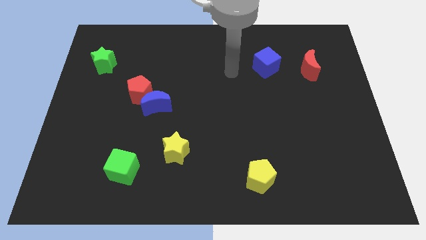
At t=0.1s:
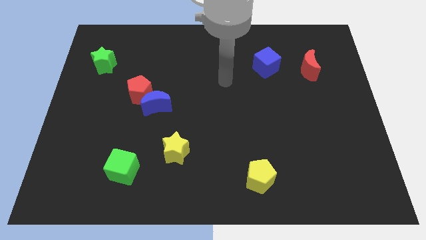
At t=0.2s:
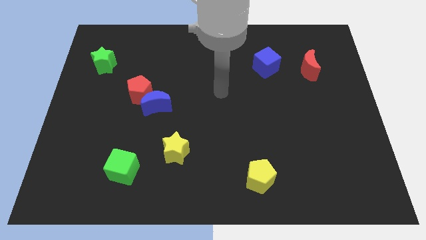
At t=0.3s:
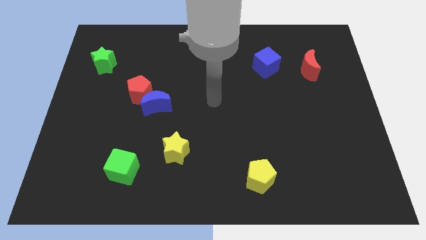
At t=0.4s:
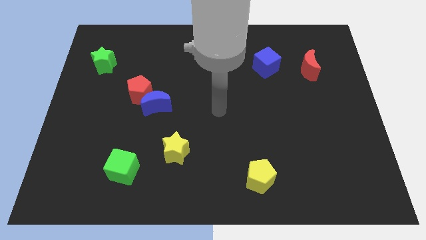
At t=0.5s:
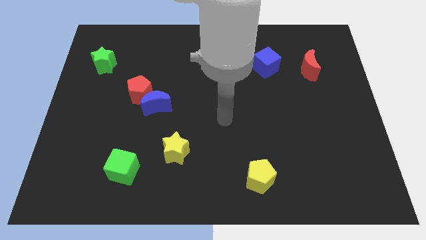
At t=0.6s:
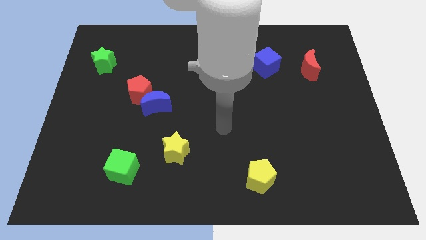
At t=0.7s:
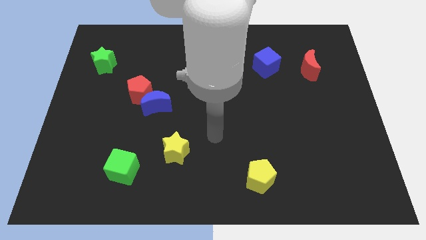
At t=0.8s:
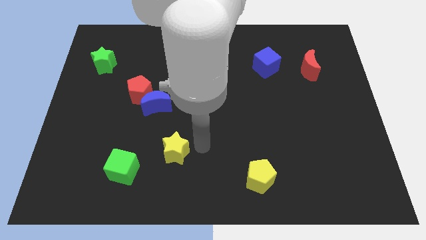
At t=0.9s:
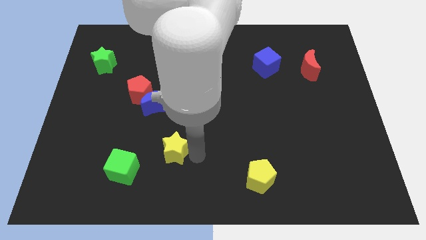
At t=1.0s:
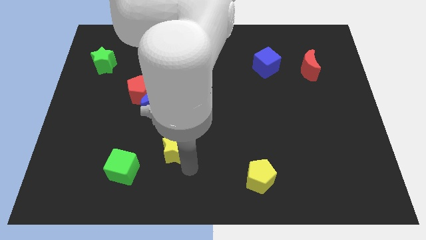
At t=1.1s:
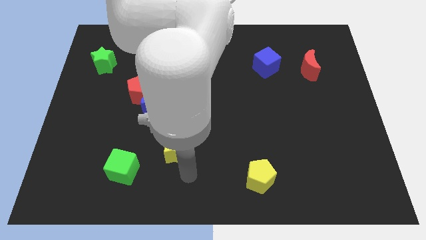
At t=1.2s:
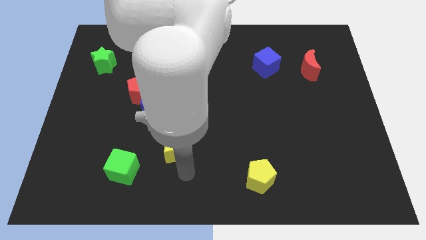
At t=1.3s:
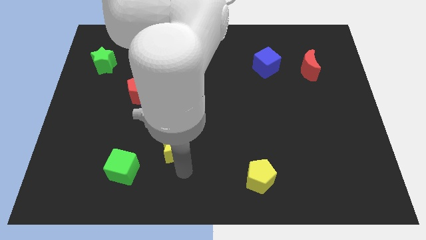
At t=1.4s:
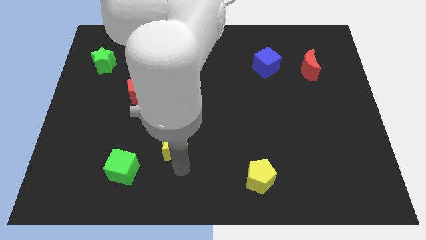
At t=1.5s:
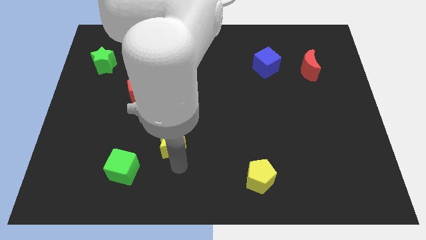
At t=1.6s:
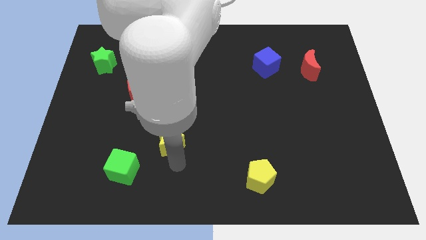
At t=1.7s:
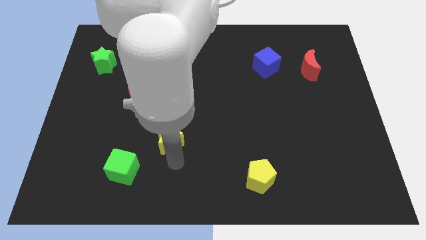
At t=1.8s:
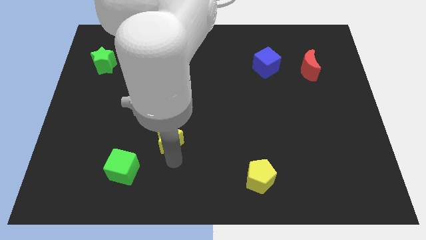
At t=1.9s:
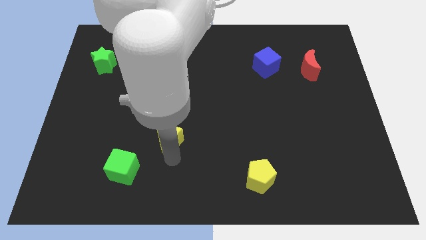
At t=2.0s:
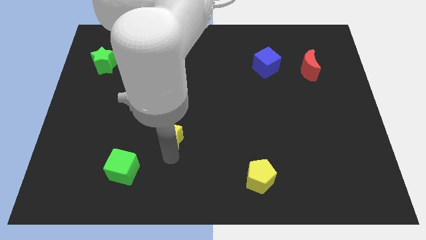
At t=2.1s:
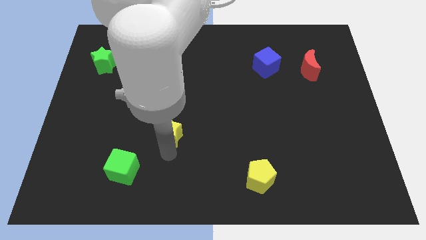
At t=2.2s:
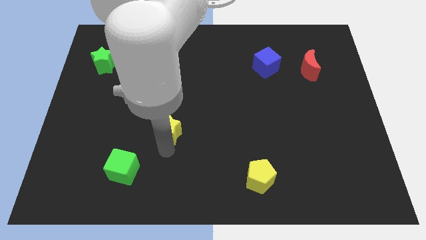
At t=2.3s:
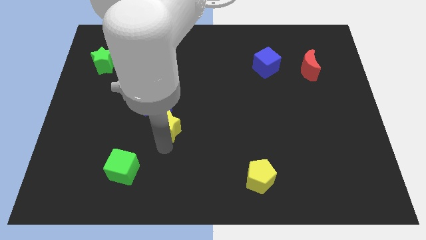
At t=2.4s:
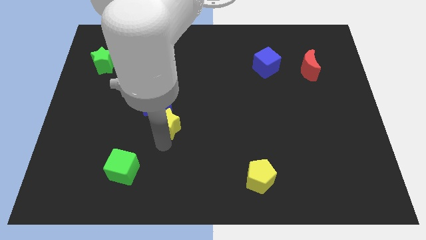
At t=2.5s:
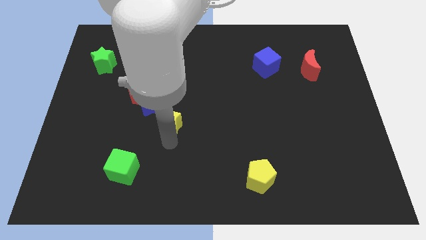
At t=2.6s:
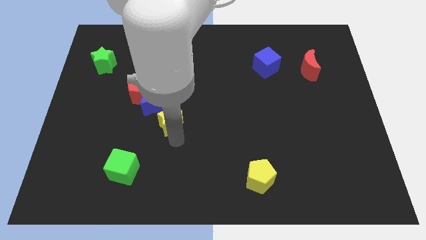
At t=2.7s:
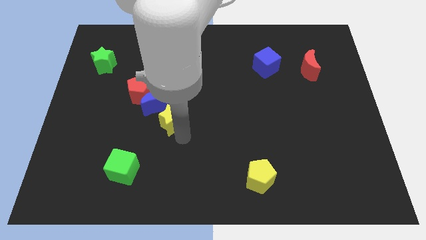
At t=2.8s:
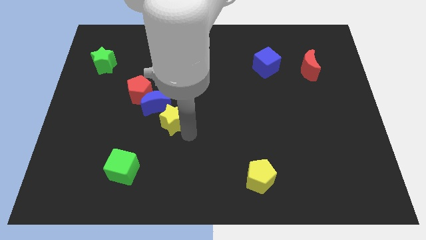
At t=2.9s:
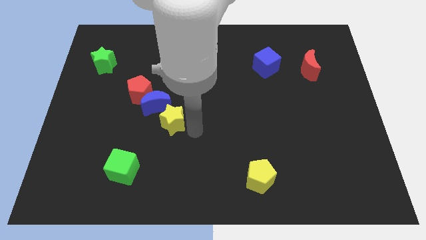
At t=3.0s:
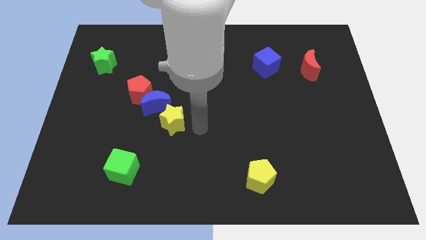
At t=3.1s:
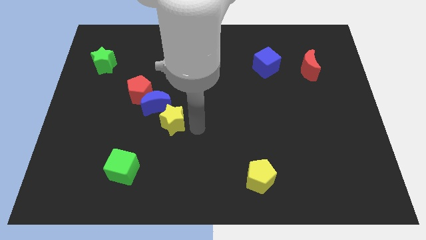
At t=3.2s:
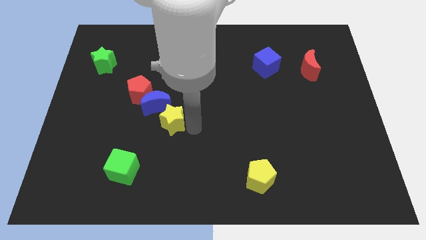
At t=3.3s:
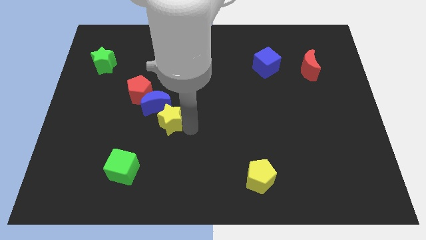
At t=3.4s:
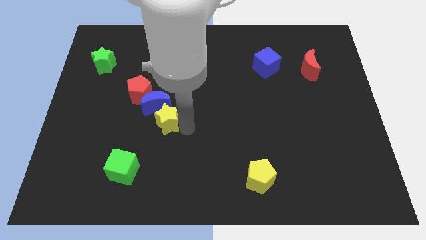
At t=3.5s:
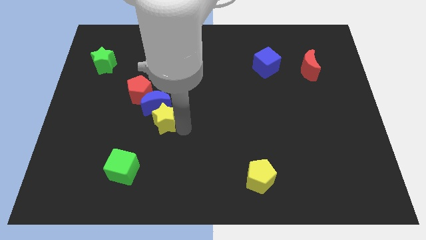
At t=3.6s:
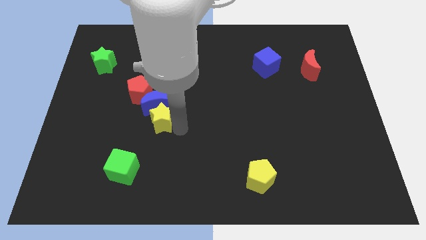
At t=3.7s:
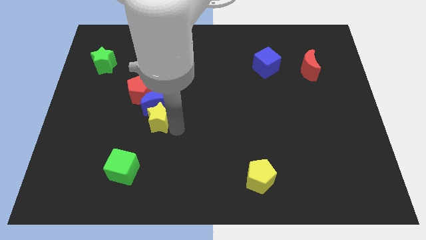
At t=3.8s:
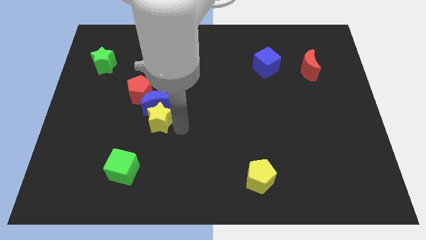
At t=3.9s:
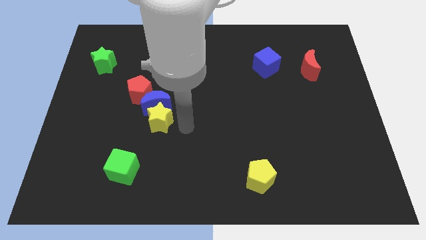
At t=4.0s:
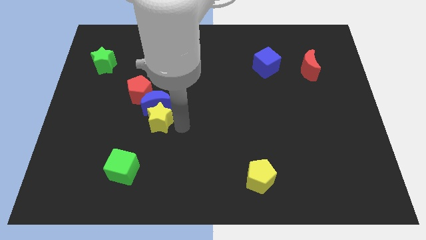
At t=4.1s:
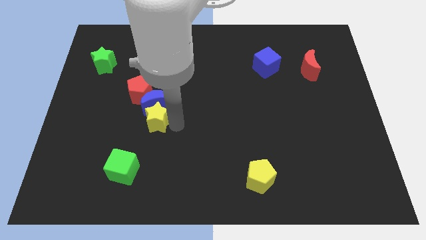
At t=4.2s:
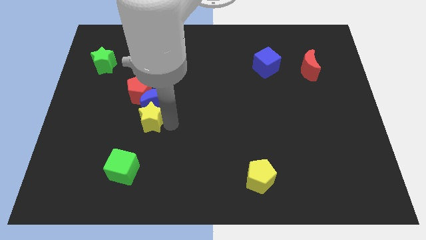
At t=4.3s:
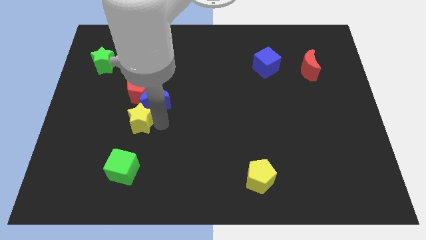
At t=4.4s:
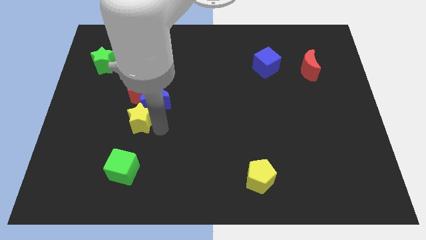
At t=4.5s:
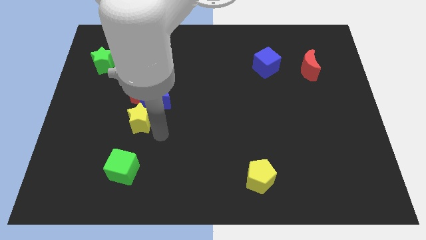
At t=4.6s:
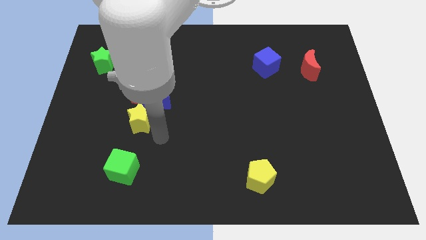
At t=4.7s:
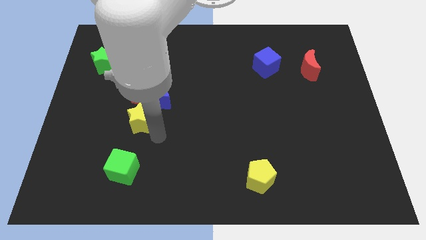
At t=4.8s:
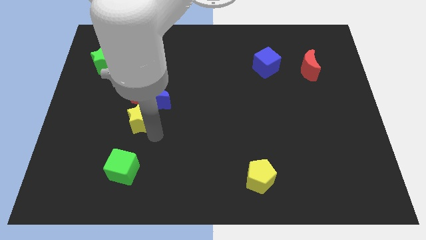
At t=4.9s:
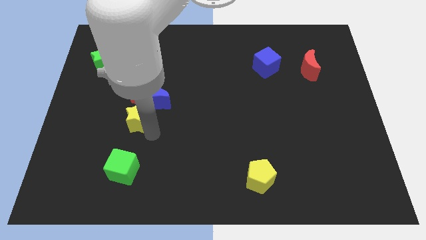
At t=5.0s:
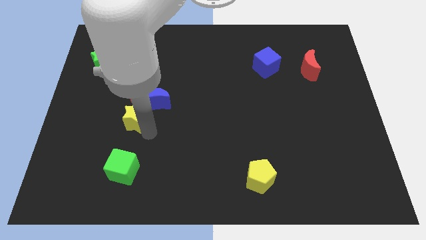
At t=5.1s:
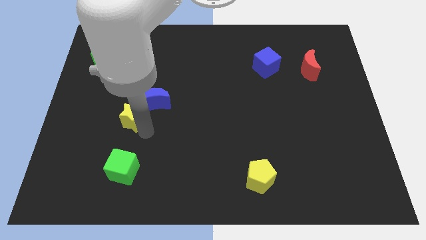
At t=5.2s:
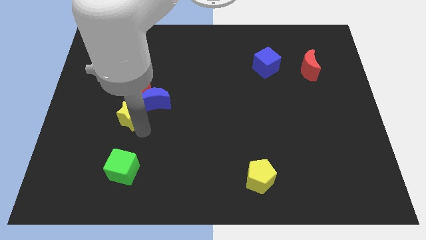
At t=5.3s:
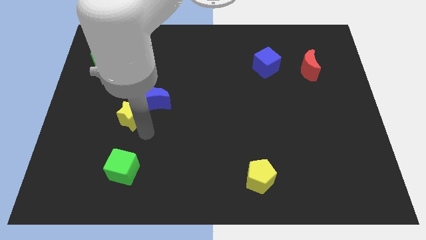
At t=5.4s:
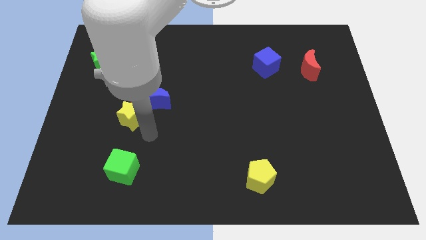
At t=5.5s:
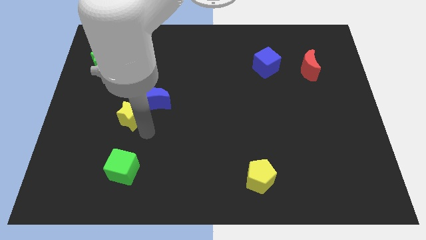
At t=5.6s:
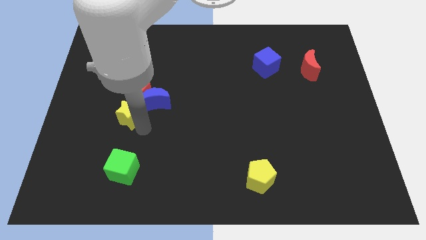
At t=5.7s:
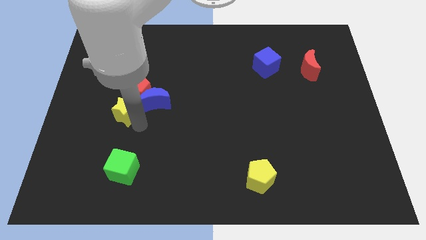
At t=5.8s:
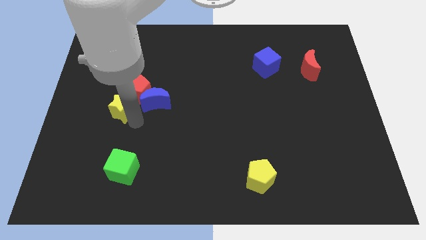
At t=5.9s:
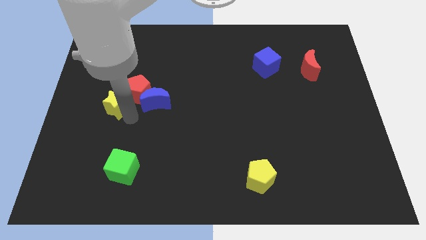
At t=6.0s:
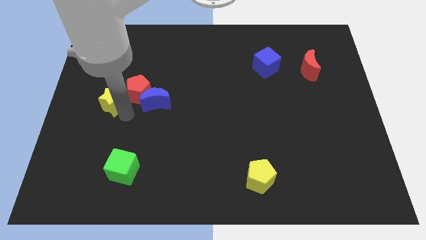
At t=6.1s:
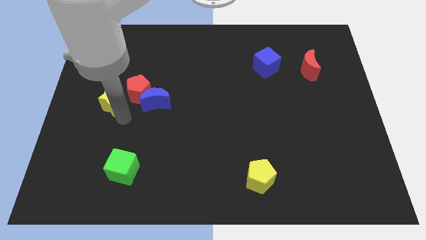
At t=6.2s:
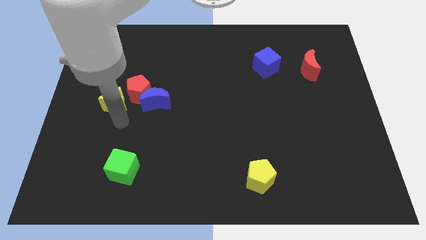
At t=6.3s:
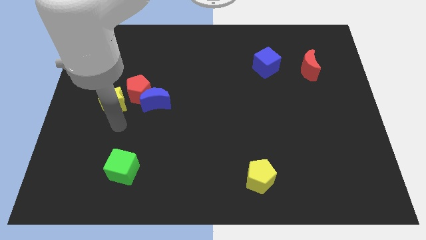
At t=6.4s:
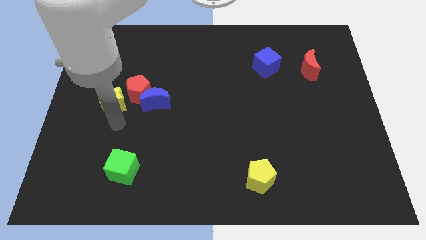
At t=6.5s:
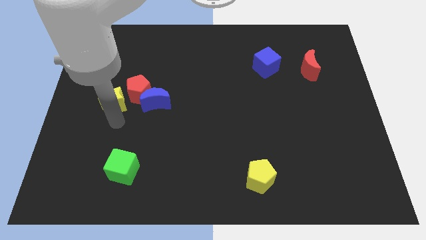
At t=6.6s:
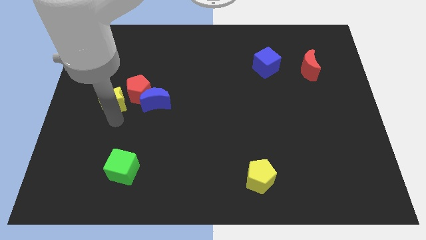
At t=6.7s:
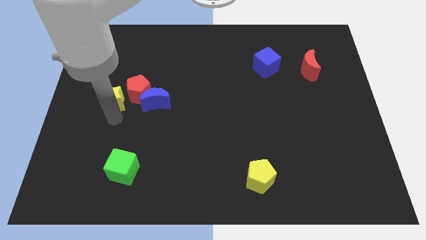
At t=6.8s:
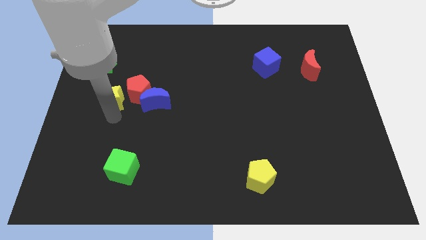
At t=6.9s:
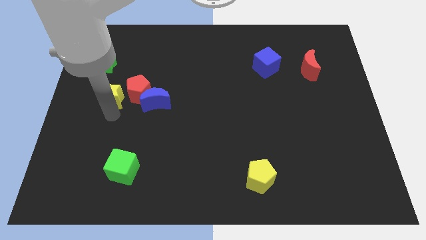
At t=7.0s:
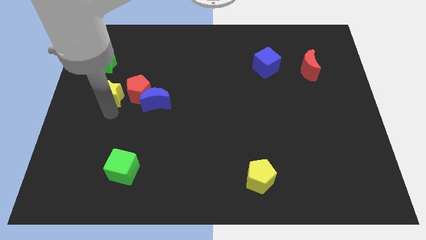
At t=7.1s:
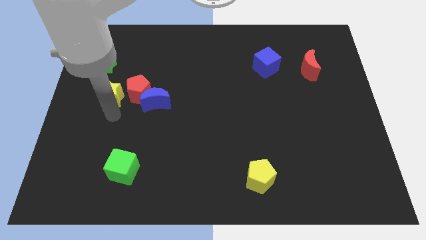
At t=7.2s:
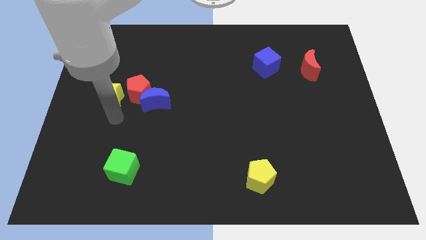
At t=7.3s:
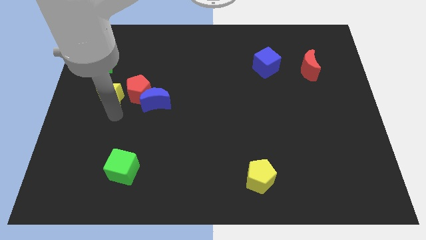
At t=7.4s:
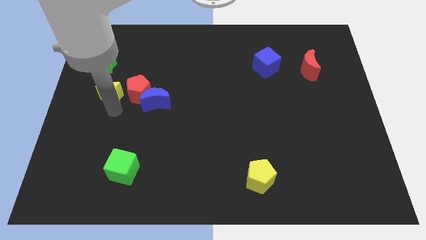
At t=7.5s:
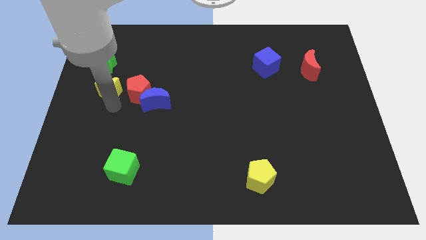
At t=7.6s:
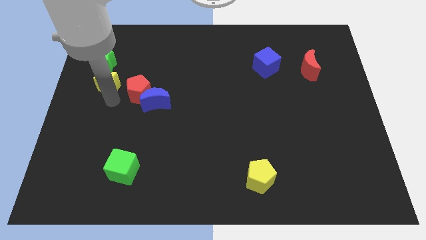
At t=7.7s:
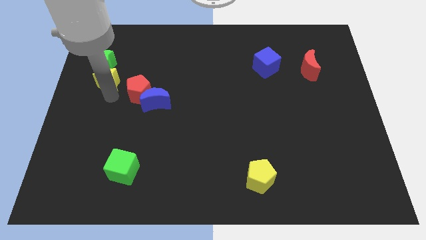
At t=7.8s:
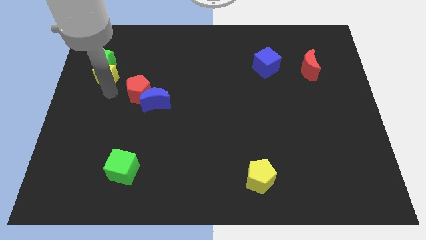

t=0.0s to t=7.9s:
slide the yellow star close to the green star
